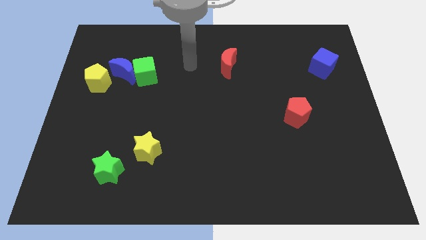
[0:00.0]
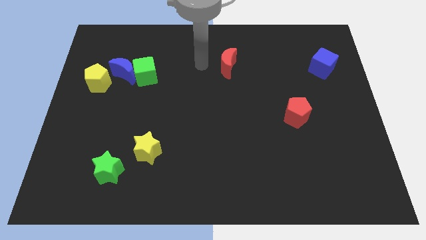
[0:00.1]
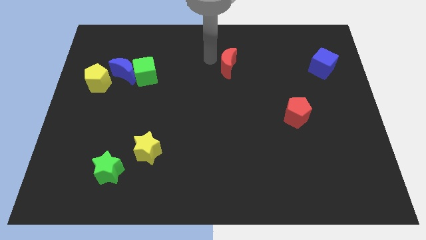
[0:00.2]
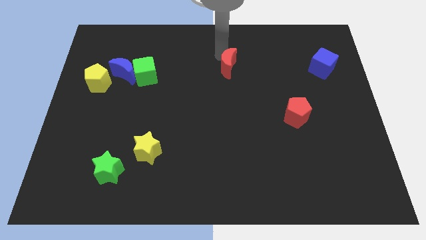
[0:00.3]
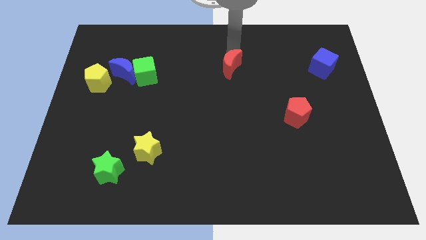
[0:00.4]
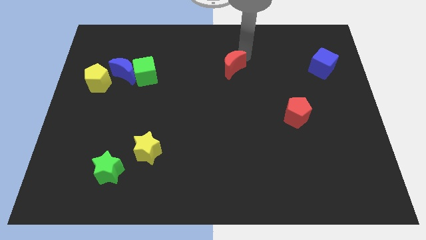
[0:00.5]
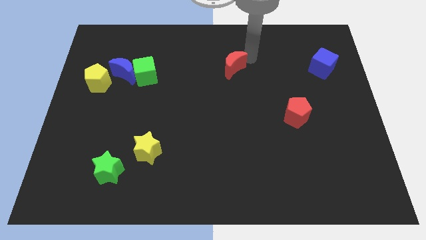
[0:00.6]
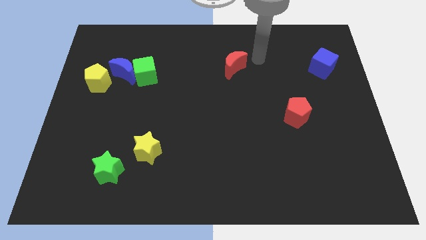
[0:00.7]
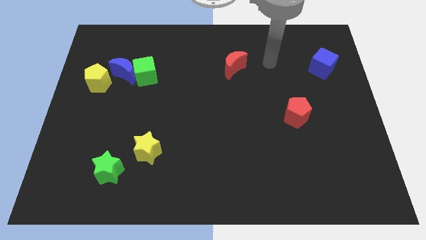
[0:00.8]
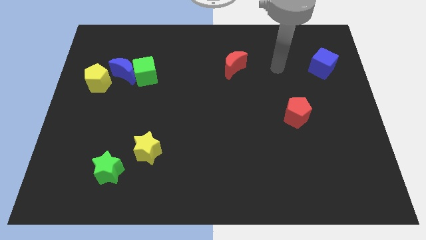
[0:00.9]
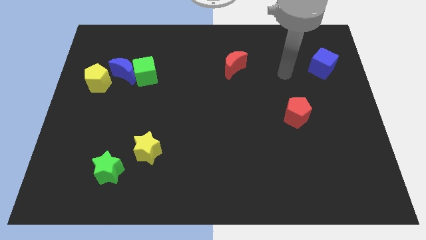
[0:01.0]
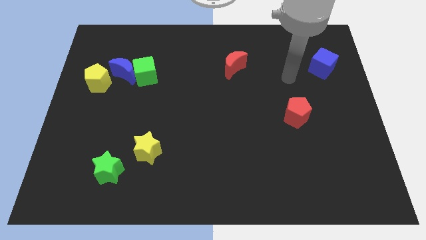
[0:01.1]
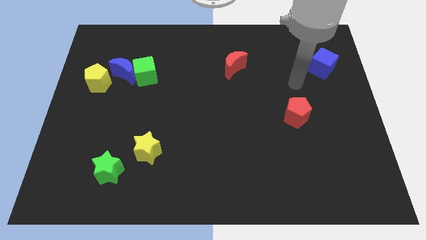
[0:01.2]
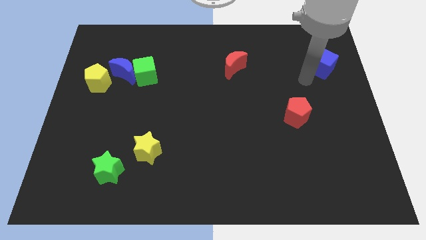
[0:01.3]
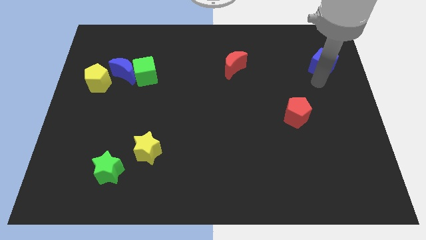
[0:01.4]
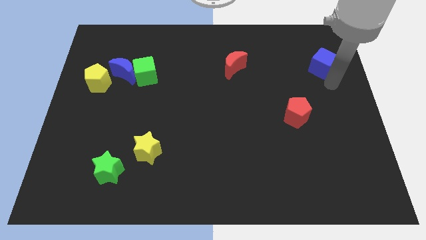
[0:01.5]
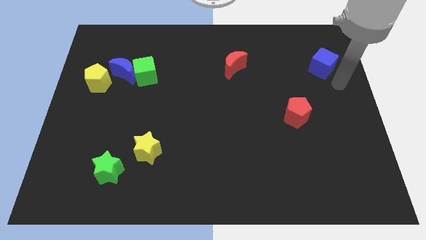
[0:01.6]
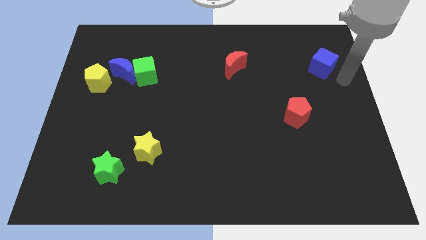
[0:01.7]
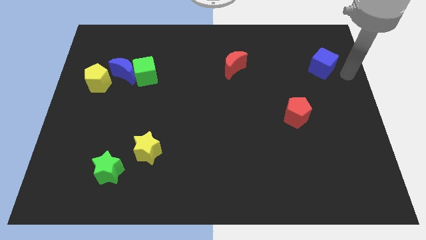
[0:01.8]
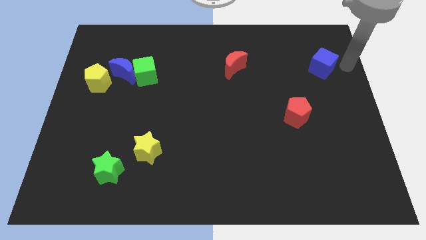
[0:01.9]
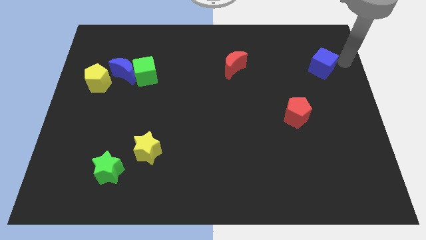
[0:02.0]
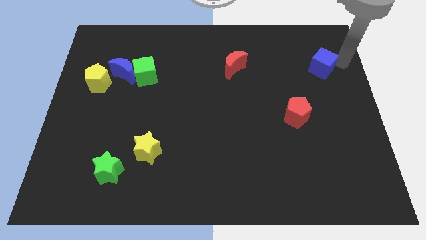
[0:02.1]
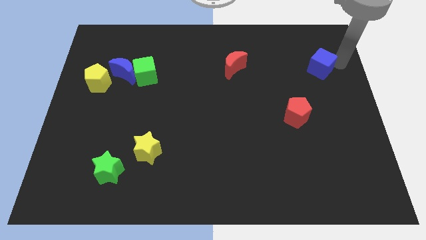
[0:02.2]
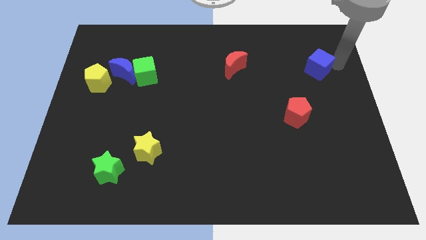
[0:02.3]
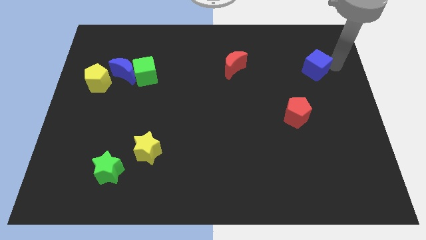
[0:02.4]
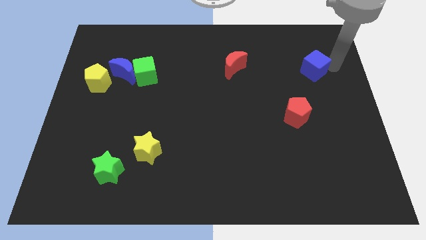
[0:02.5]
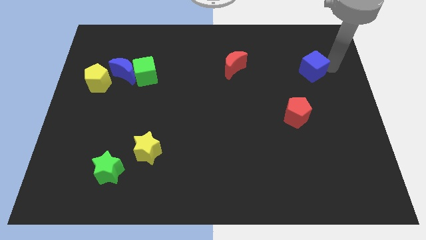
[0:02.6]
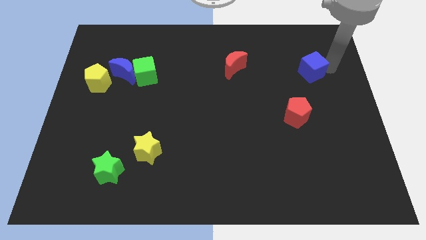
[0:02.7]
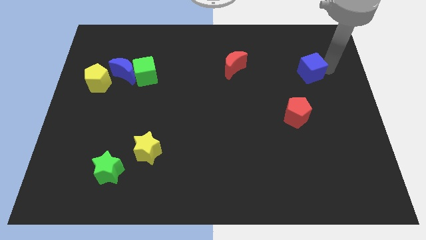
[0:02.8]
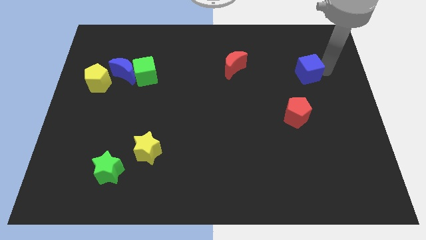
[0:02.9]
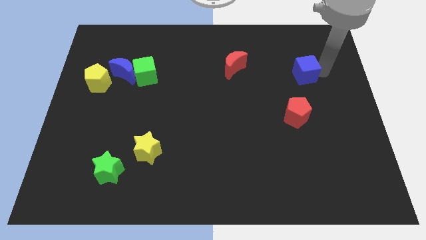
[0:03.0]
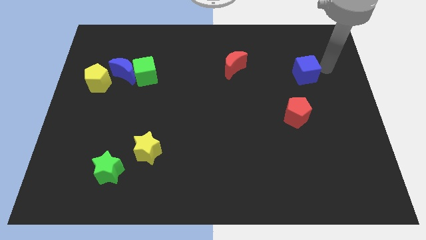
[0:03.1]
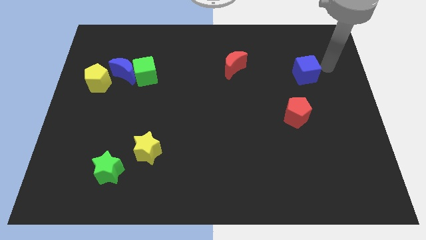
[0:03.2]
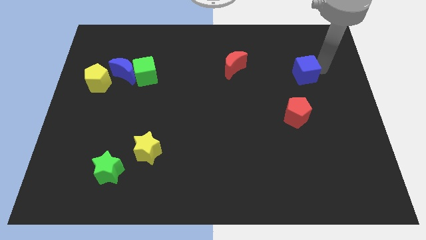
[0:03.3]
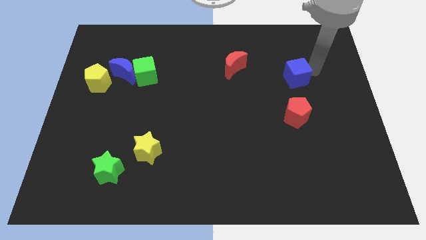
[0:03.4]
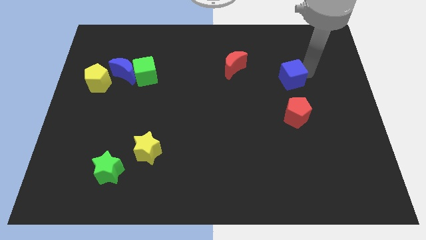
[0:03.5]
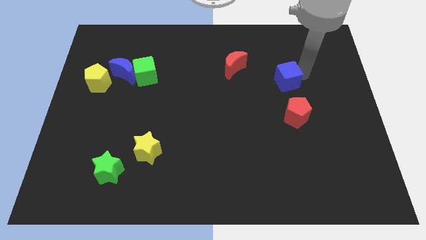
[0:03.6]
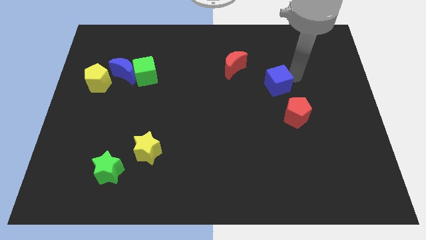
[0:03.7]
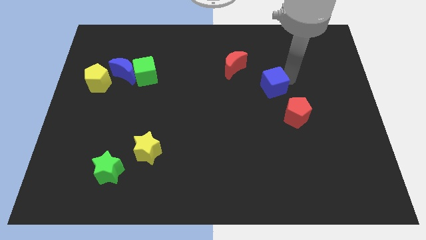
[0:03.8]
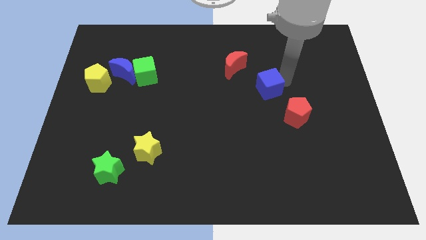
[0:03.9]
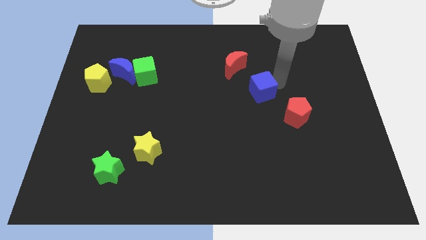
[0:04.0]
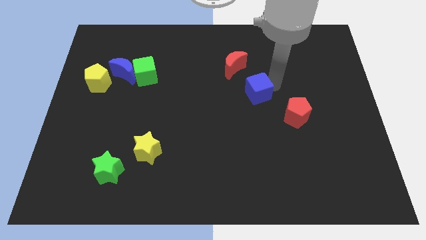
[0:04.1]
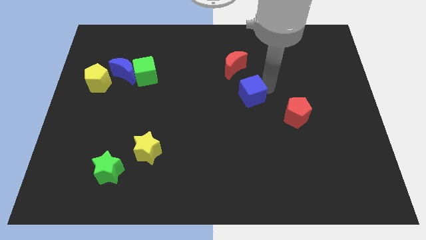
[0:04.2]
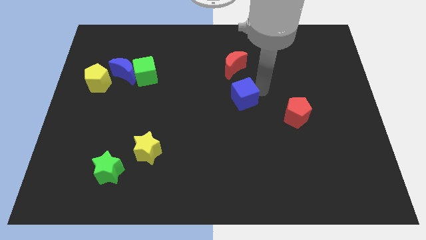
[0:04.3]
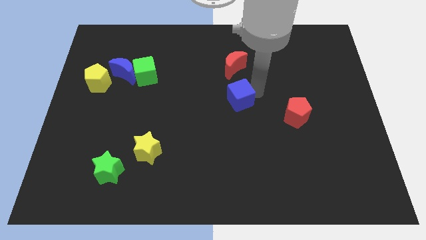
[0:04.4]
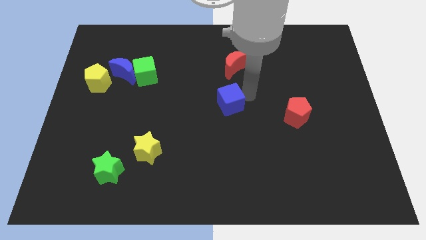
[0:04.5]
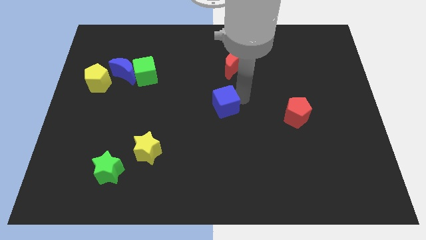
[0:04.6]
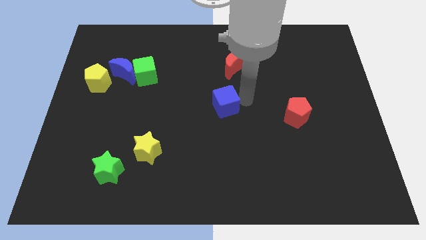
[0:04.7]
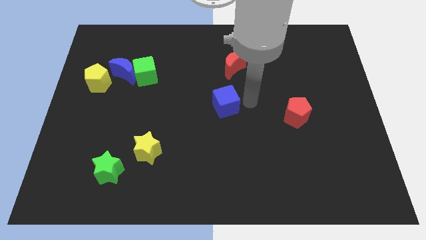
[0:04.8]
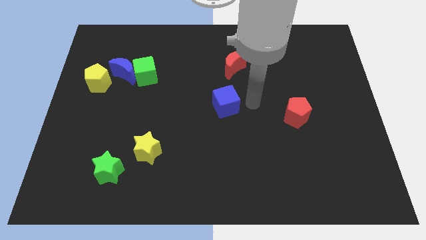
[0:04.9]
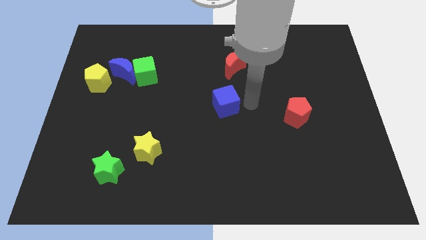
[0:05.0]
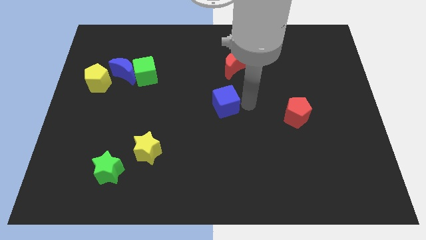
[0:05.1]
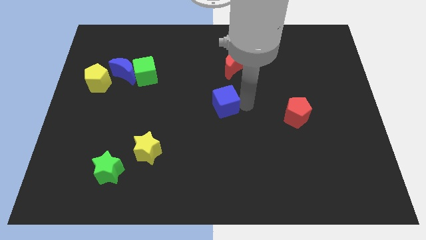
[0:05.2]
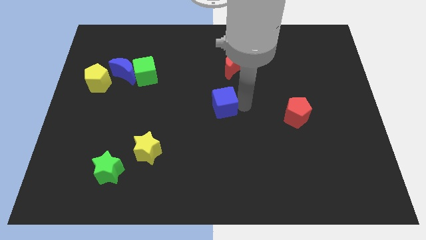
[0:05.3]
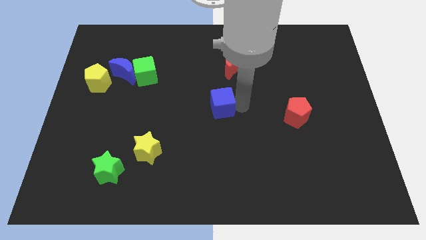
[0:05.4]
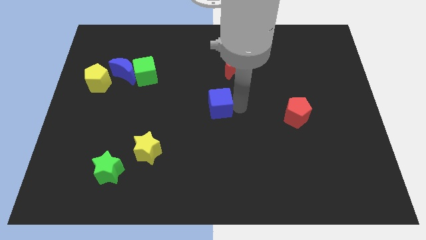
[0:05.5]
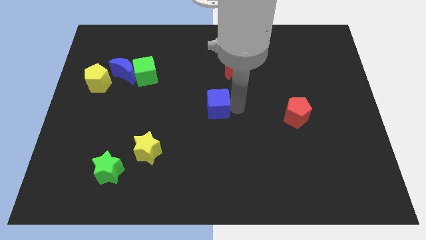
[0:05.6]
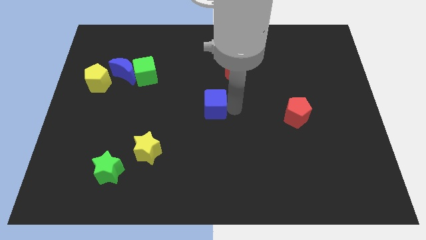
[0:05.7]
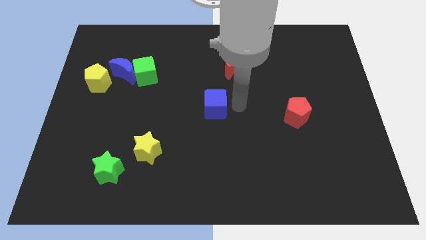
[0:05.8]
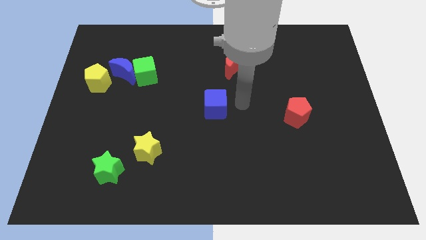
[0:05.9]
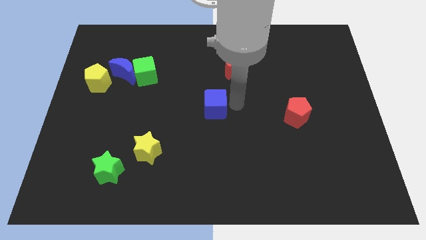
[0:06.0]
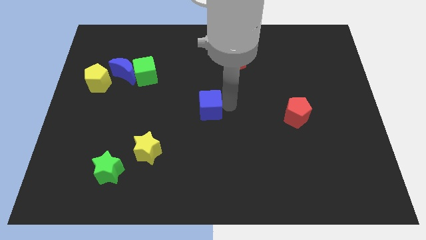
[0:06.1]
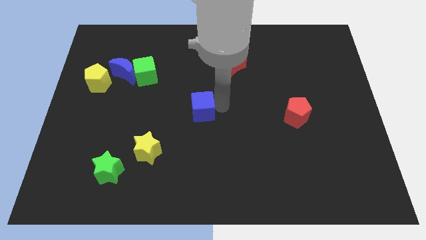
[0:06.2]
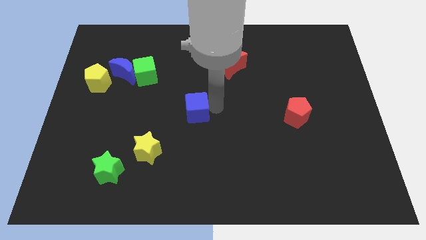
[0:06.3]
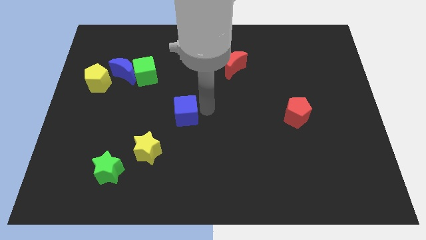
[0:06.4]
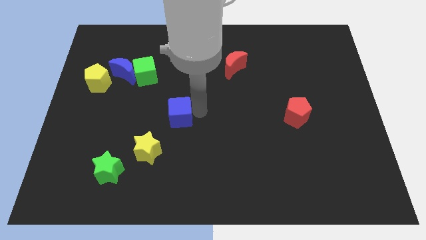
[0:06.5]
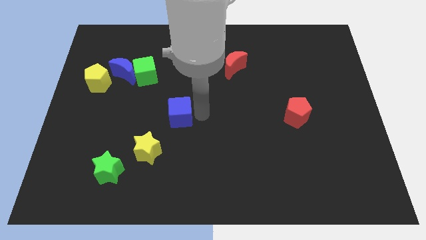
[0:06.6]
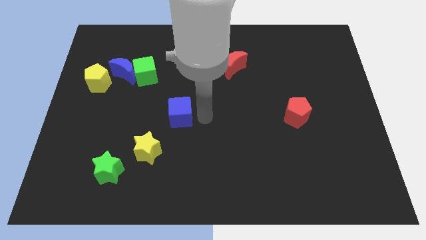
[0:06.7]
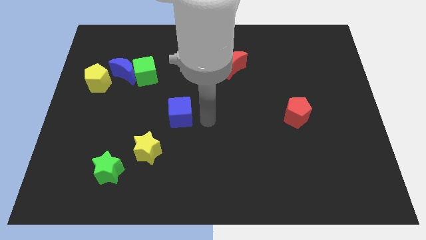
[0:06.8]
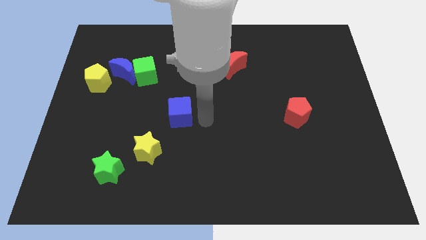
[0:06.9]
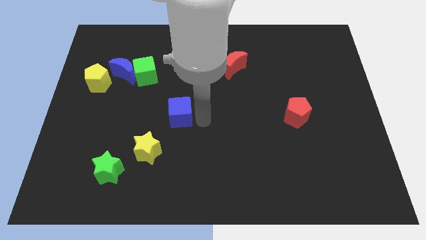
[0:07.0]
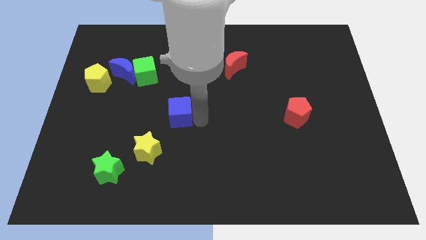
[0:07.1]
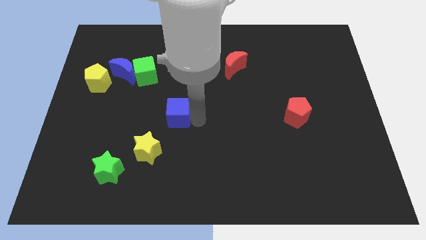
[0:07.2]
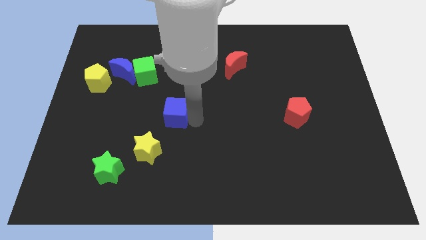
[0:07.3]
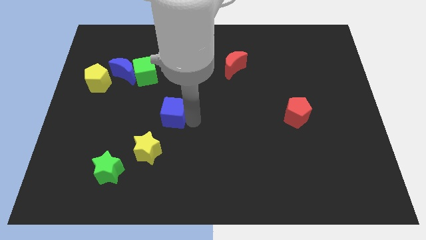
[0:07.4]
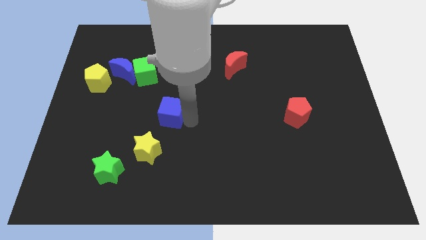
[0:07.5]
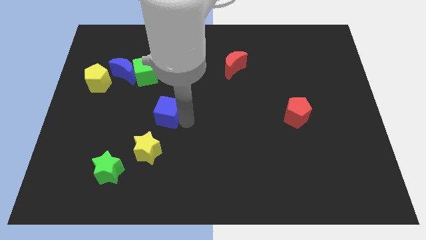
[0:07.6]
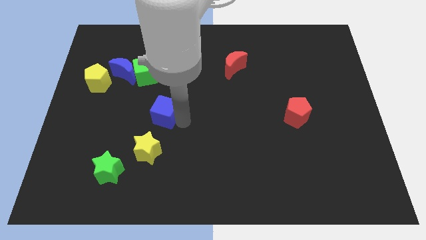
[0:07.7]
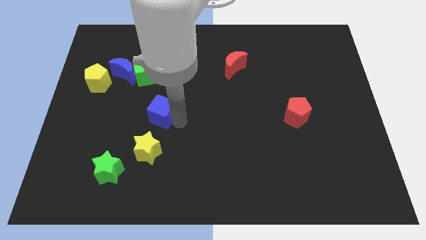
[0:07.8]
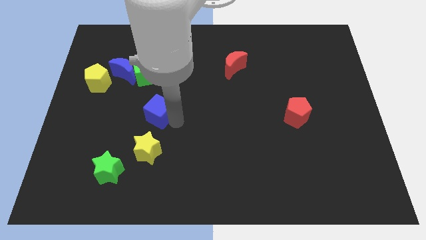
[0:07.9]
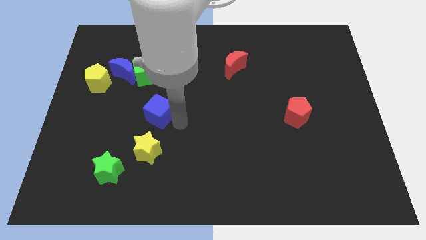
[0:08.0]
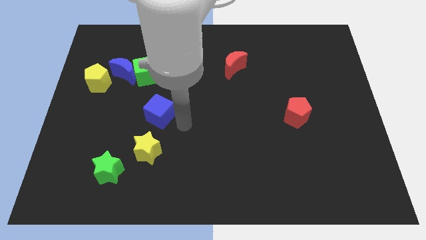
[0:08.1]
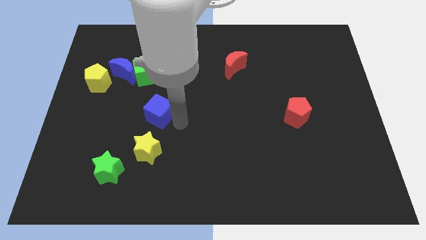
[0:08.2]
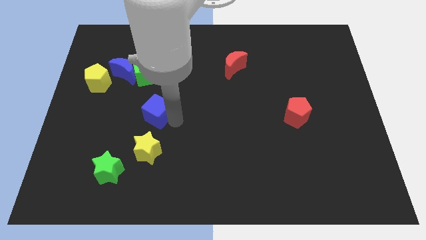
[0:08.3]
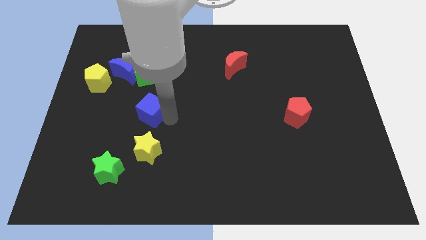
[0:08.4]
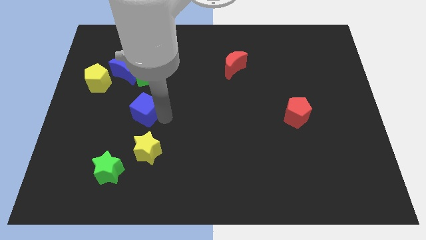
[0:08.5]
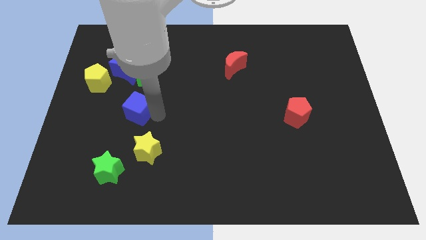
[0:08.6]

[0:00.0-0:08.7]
push the blue cube to the bottom of the blue moon
